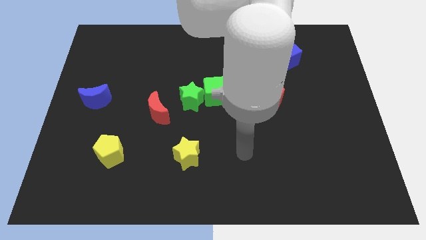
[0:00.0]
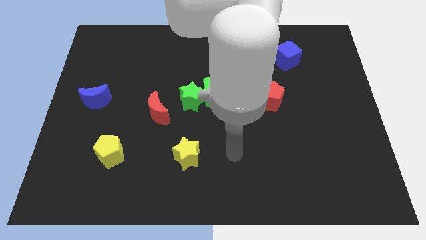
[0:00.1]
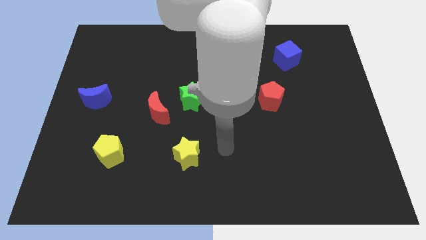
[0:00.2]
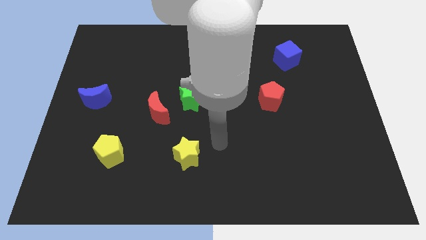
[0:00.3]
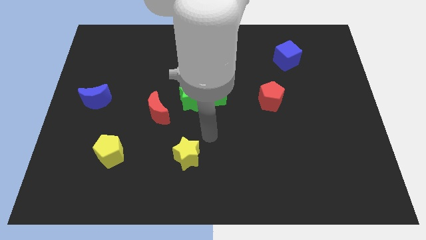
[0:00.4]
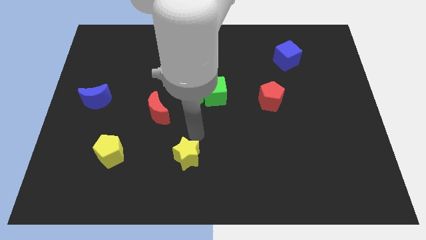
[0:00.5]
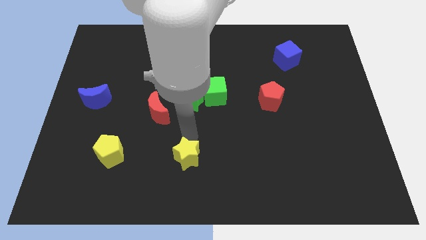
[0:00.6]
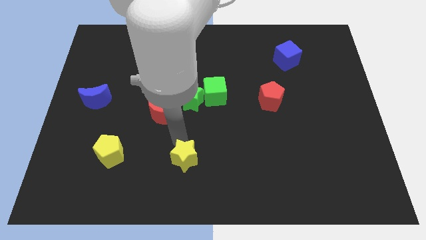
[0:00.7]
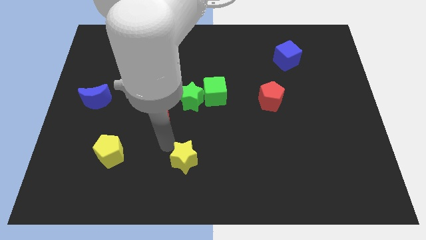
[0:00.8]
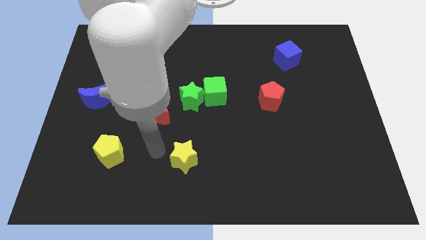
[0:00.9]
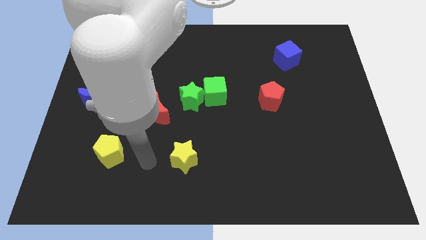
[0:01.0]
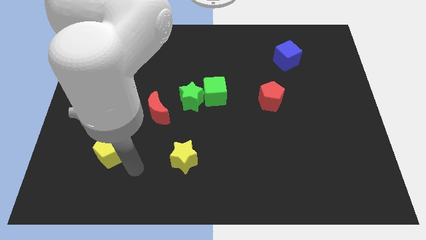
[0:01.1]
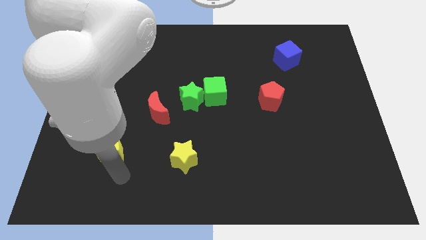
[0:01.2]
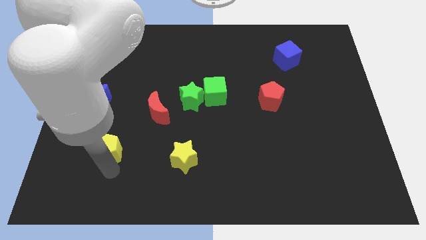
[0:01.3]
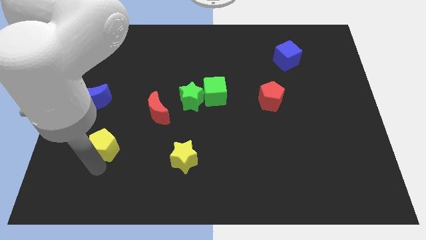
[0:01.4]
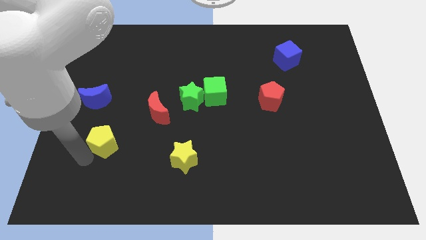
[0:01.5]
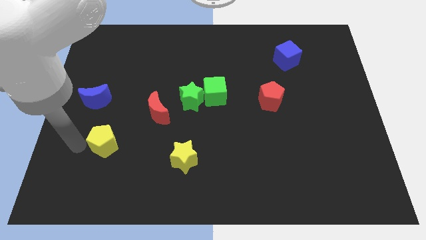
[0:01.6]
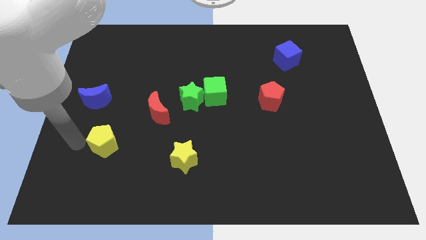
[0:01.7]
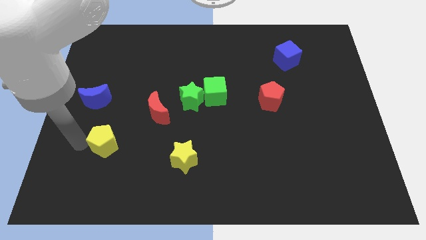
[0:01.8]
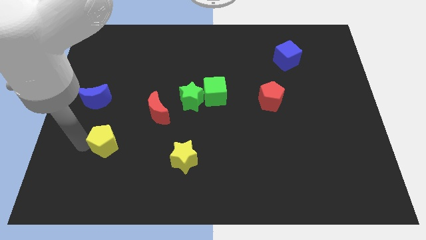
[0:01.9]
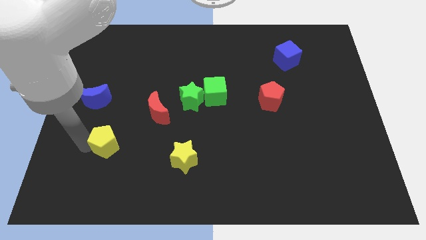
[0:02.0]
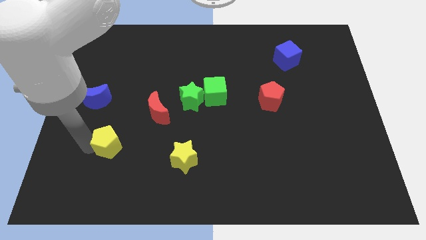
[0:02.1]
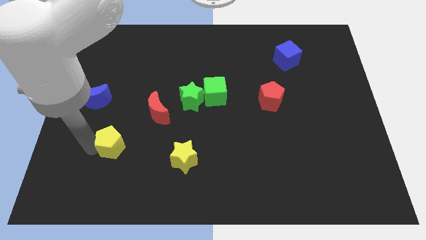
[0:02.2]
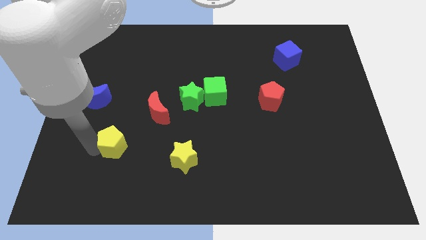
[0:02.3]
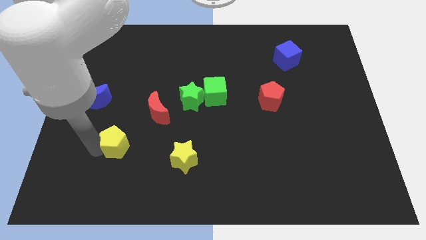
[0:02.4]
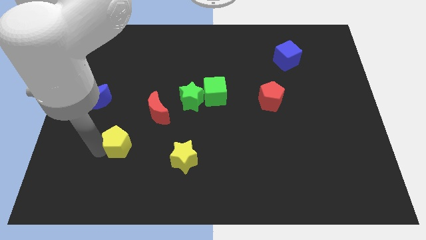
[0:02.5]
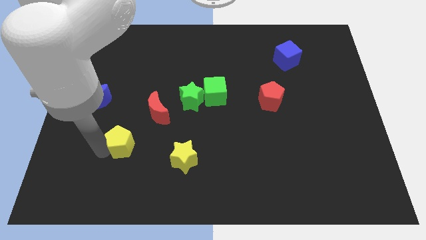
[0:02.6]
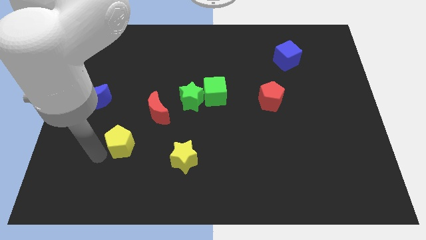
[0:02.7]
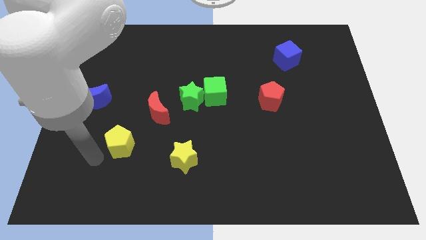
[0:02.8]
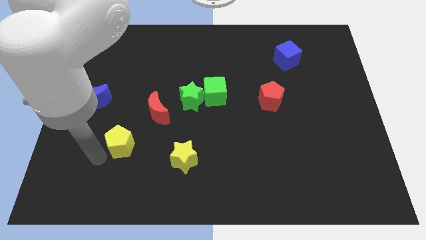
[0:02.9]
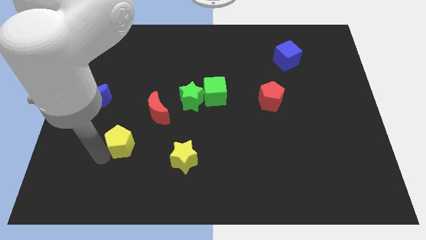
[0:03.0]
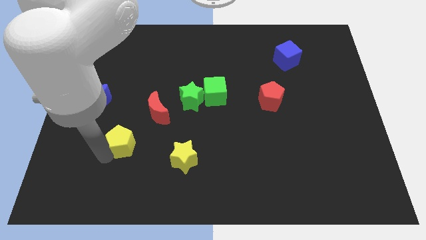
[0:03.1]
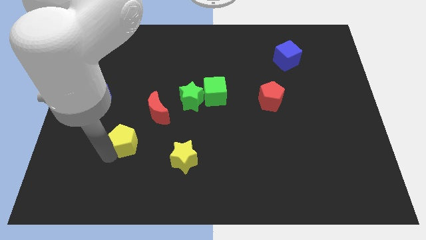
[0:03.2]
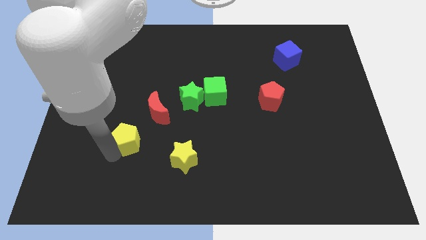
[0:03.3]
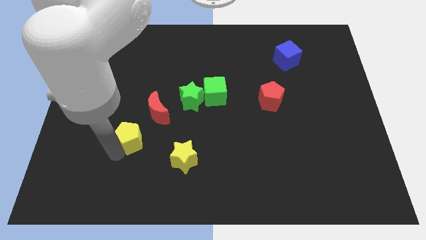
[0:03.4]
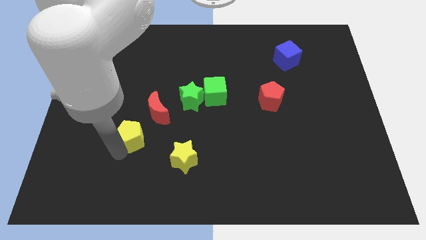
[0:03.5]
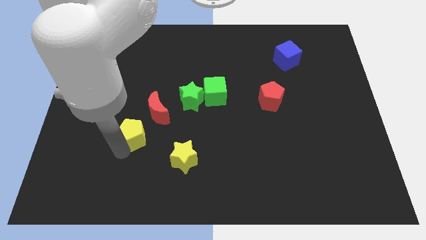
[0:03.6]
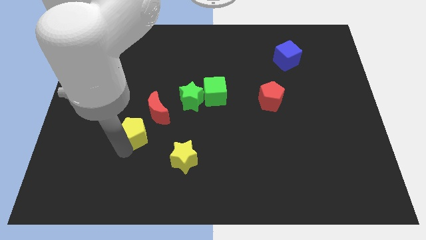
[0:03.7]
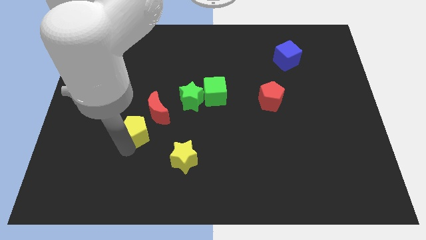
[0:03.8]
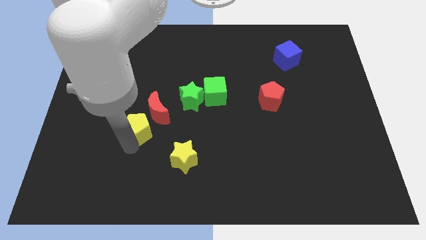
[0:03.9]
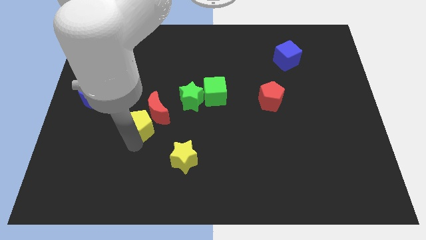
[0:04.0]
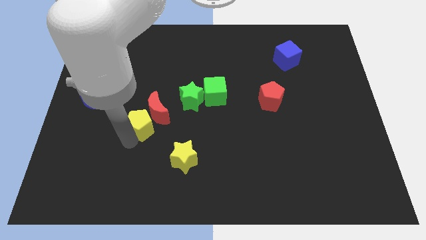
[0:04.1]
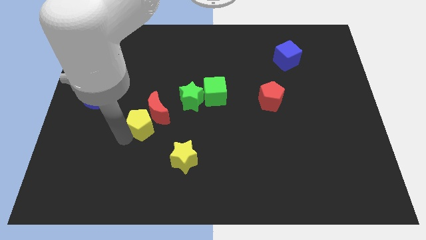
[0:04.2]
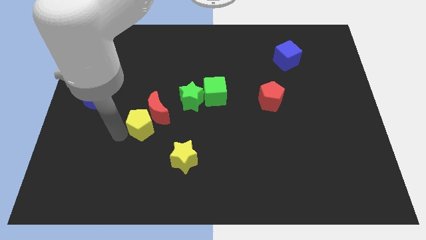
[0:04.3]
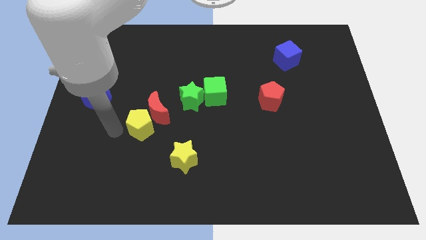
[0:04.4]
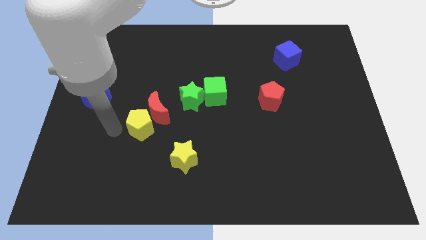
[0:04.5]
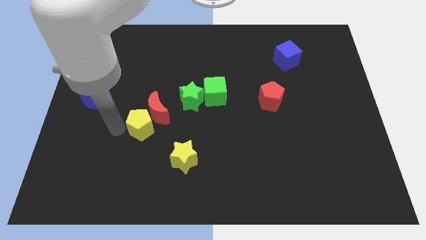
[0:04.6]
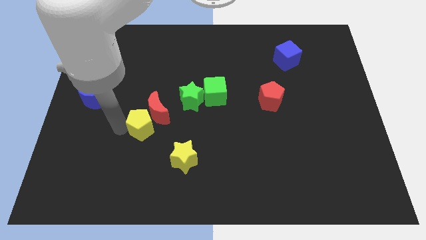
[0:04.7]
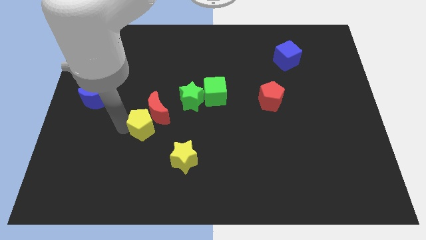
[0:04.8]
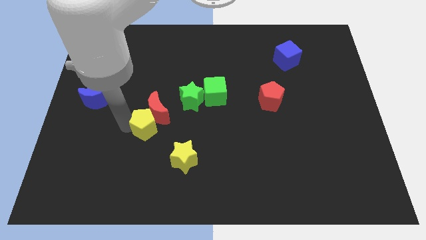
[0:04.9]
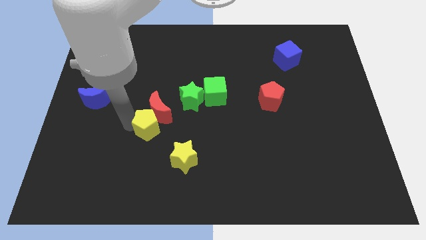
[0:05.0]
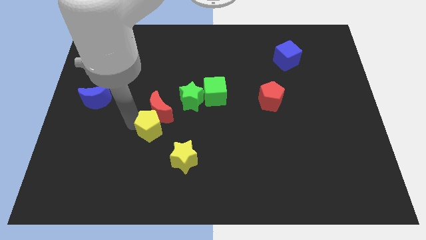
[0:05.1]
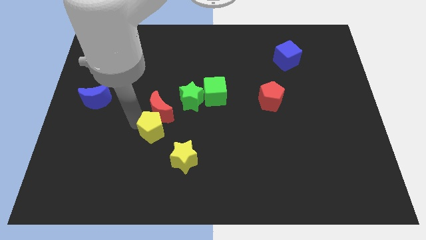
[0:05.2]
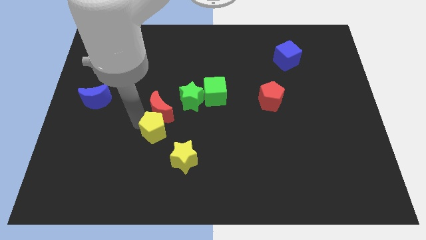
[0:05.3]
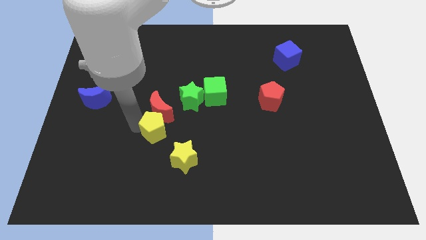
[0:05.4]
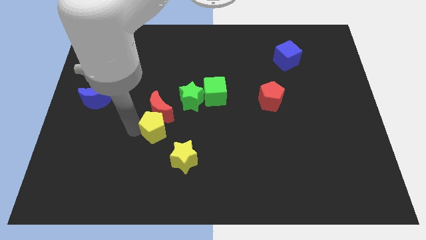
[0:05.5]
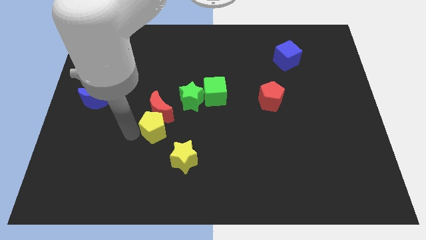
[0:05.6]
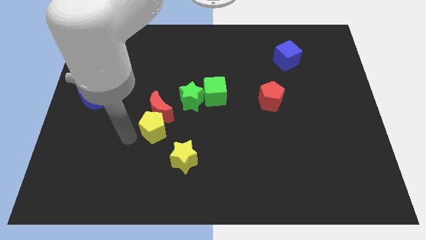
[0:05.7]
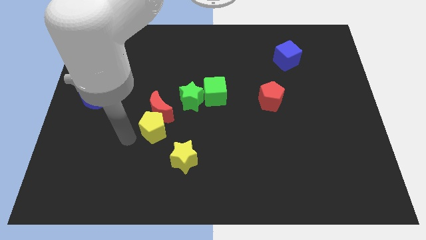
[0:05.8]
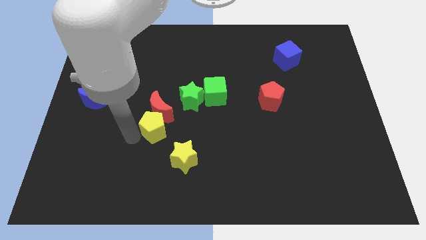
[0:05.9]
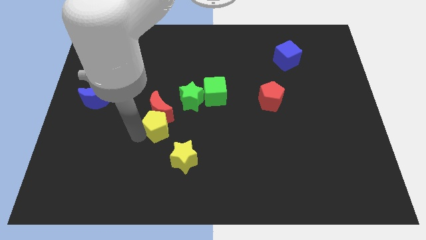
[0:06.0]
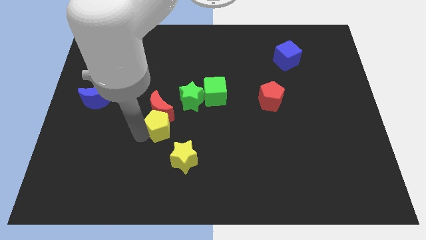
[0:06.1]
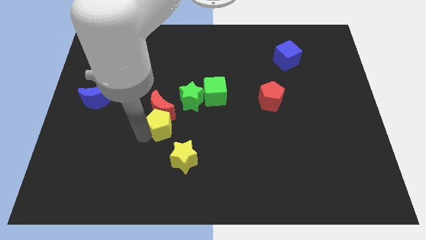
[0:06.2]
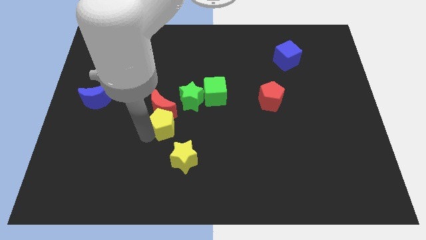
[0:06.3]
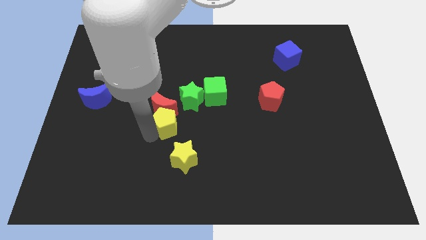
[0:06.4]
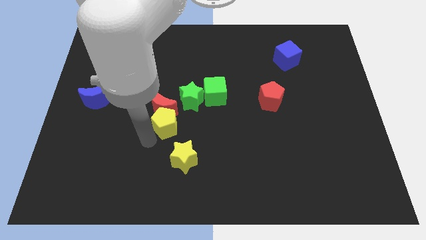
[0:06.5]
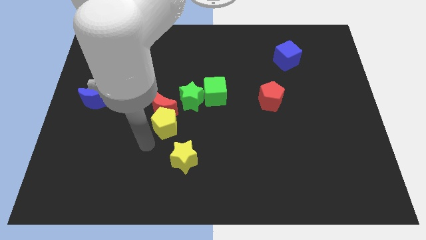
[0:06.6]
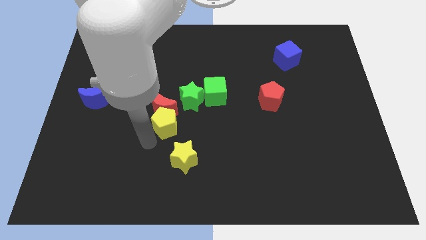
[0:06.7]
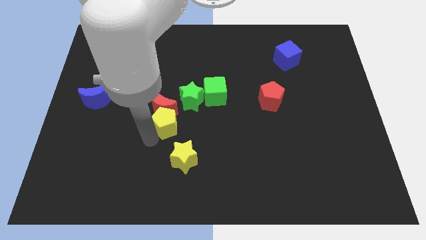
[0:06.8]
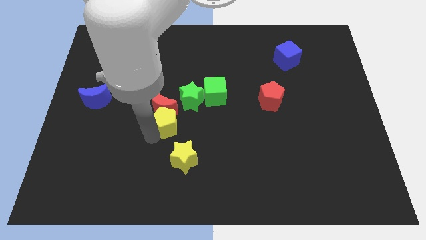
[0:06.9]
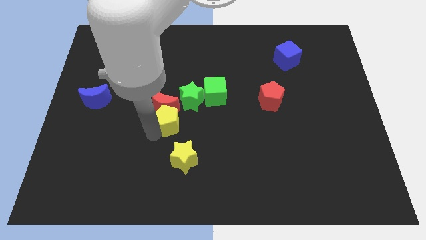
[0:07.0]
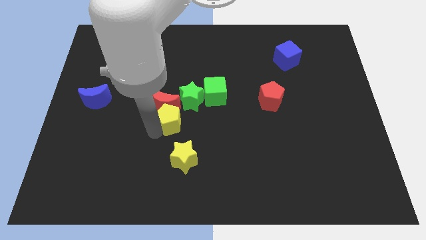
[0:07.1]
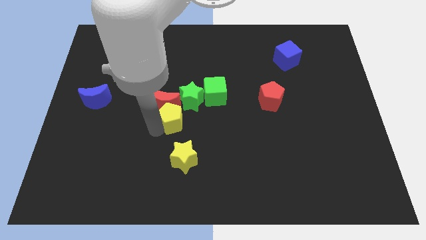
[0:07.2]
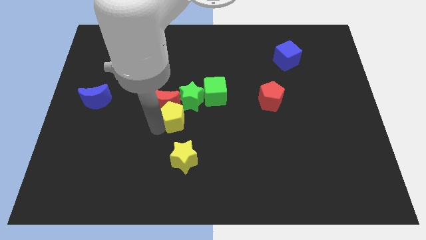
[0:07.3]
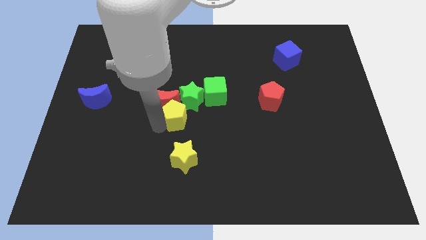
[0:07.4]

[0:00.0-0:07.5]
move the yellow pentagon towards the green star
